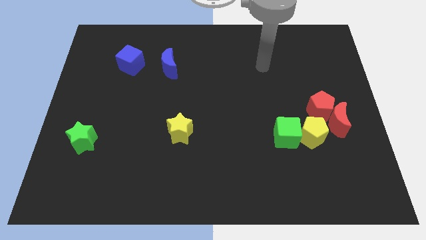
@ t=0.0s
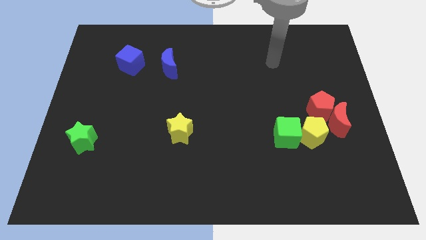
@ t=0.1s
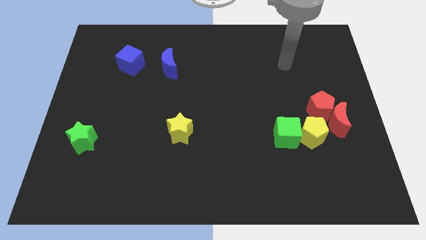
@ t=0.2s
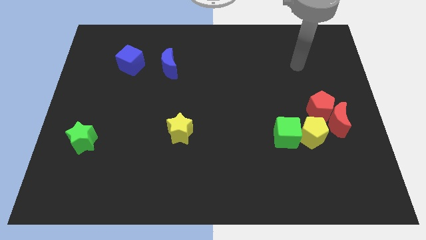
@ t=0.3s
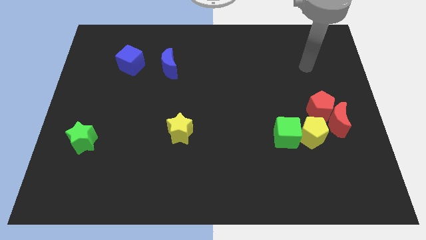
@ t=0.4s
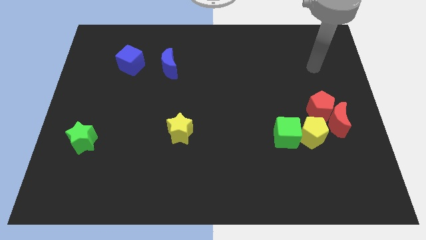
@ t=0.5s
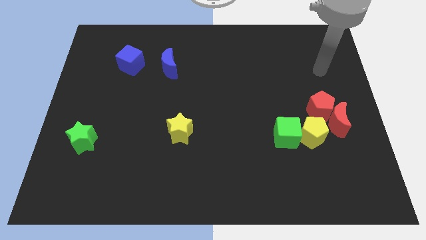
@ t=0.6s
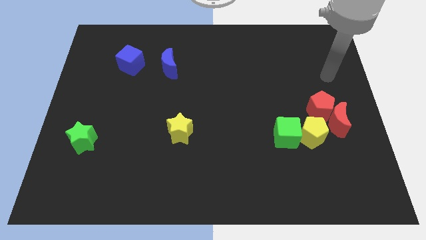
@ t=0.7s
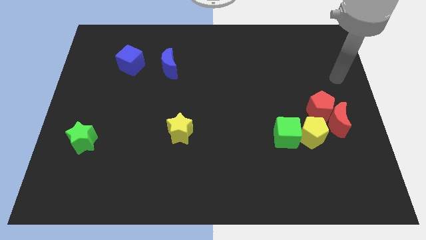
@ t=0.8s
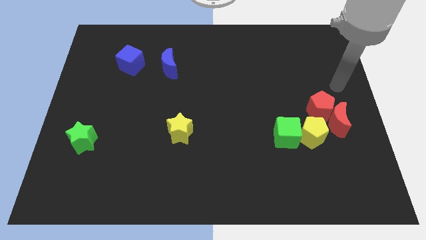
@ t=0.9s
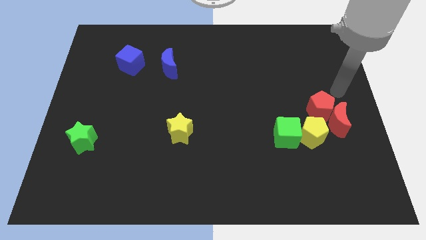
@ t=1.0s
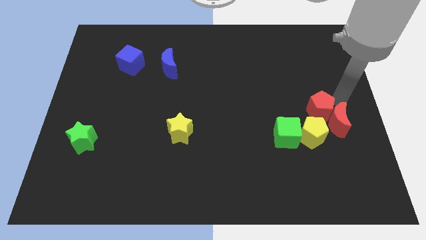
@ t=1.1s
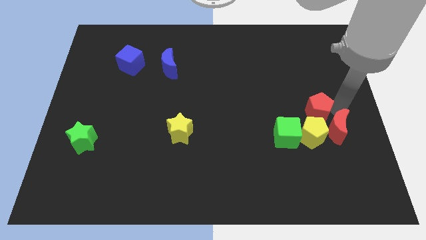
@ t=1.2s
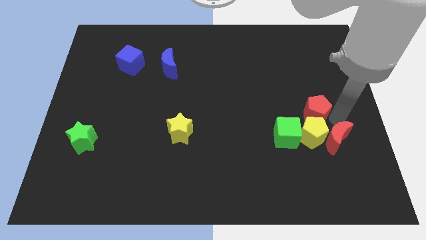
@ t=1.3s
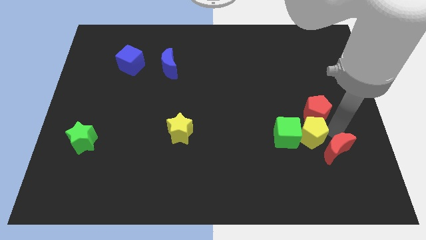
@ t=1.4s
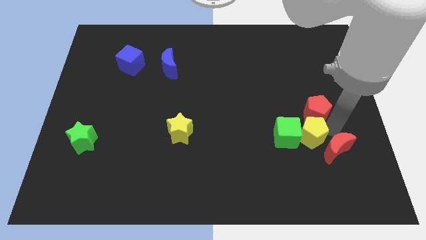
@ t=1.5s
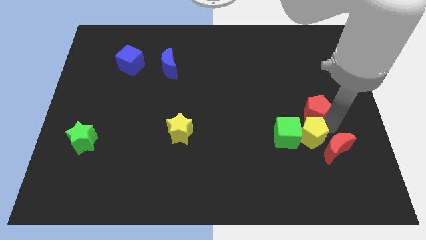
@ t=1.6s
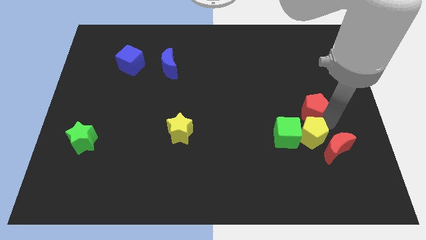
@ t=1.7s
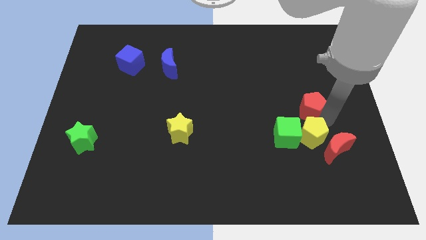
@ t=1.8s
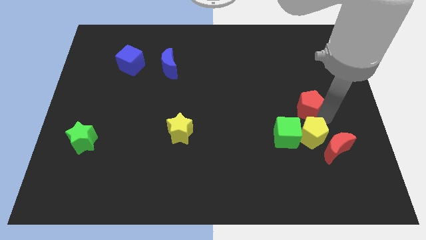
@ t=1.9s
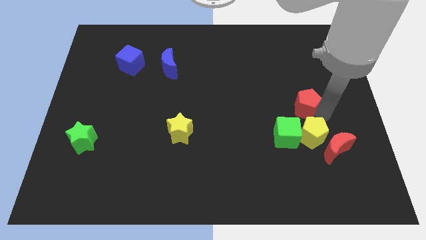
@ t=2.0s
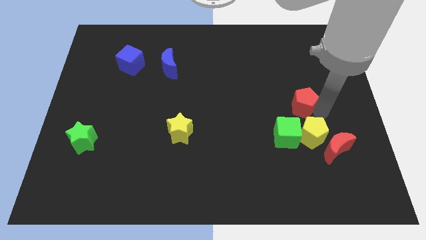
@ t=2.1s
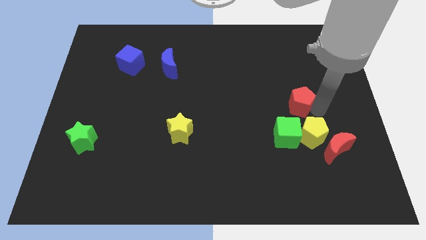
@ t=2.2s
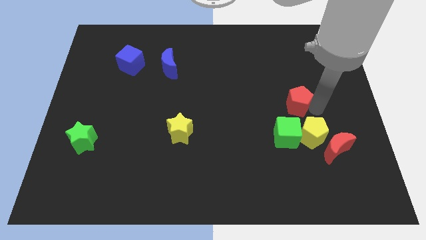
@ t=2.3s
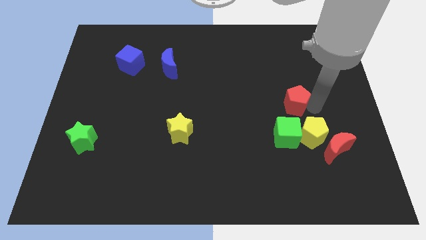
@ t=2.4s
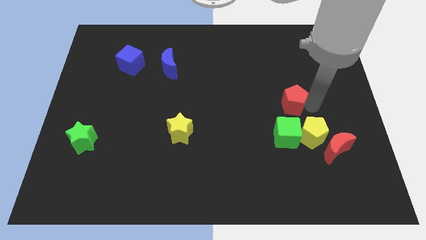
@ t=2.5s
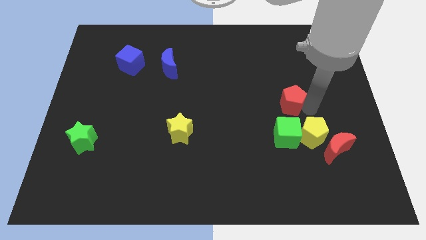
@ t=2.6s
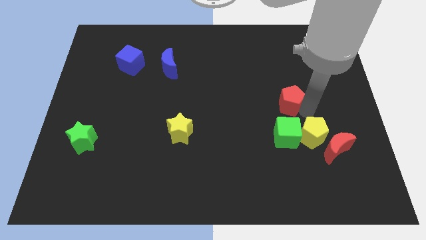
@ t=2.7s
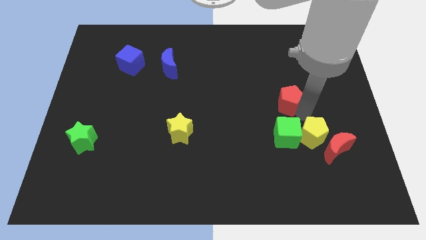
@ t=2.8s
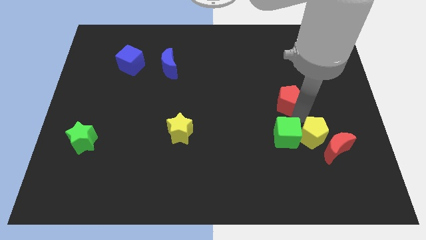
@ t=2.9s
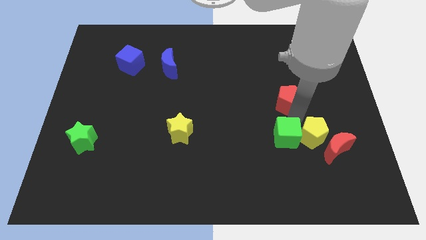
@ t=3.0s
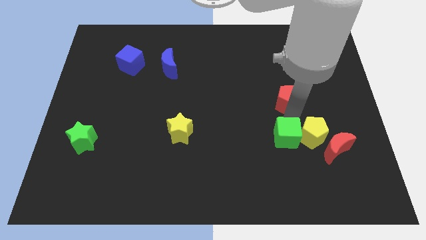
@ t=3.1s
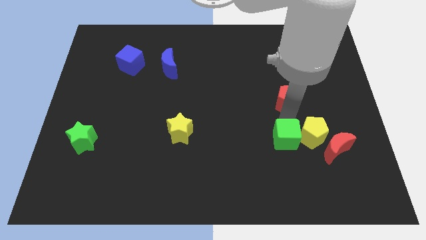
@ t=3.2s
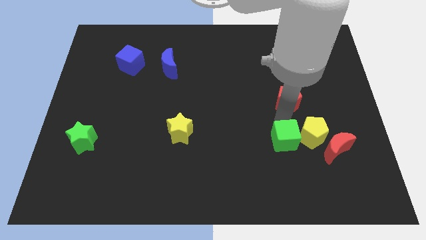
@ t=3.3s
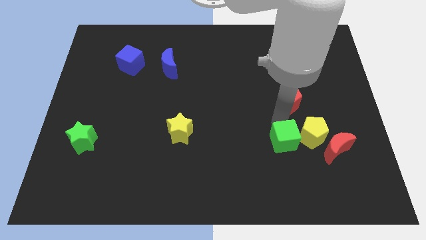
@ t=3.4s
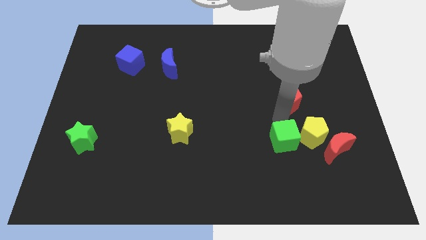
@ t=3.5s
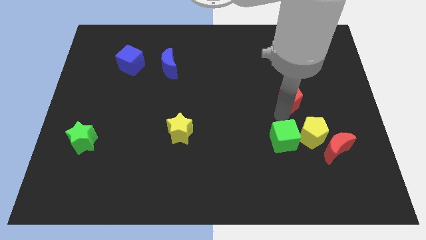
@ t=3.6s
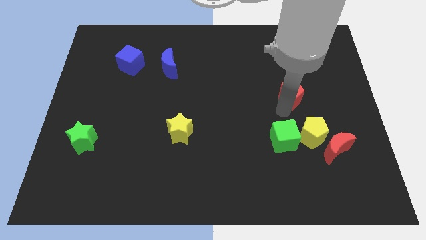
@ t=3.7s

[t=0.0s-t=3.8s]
slightly slide the red pentagon up and to the left

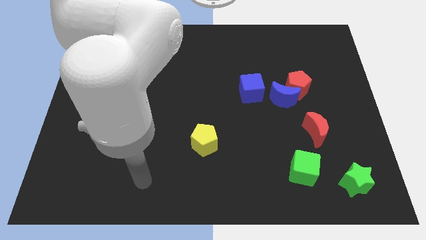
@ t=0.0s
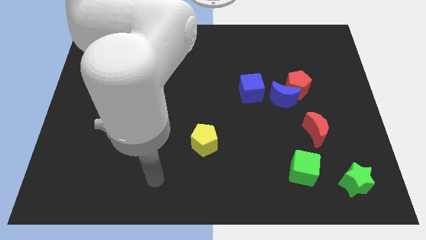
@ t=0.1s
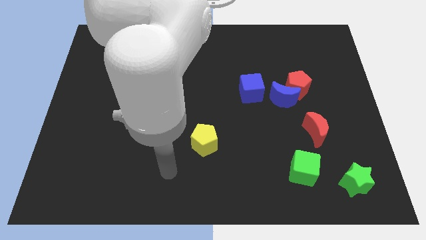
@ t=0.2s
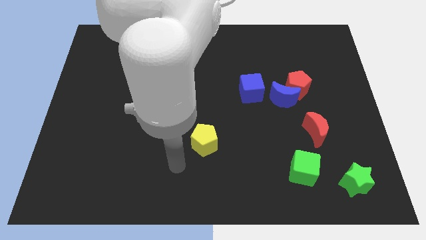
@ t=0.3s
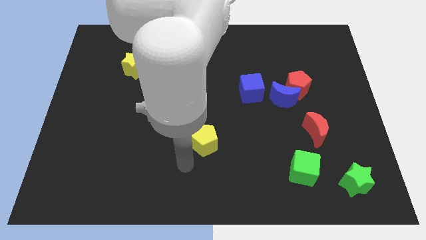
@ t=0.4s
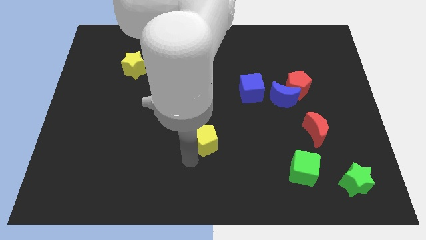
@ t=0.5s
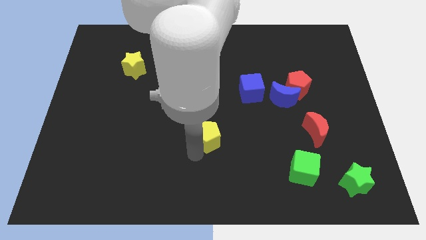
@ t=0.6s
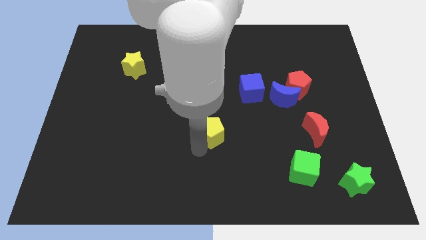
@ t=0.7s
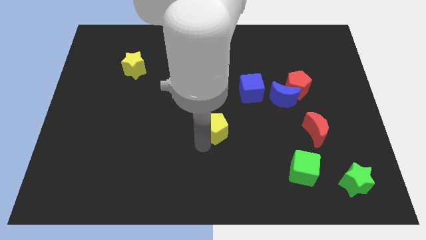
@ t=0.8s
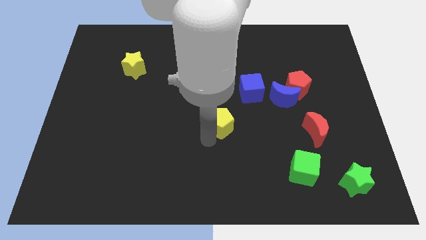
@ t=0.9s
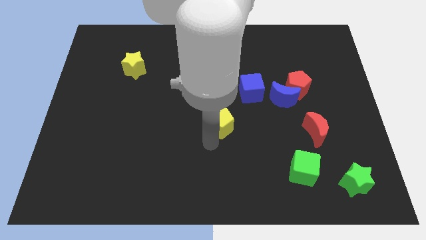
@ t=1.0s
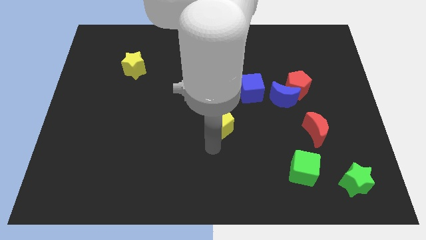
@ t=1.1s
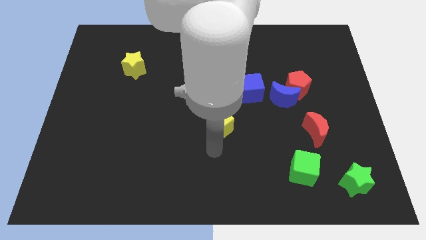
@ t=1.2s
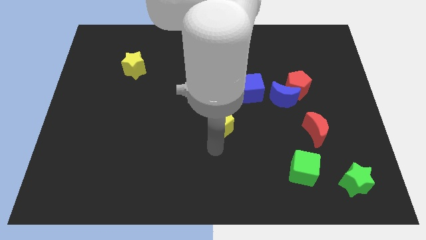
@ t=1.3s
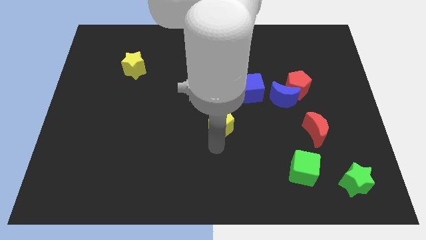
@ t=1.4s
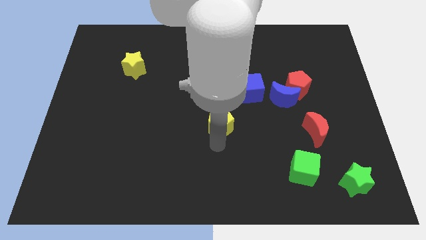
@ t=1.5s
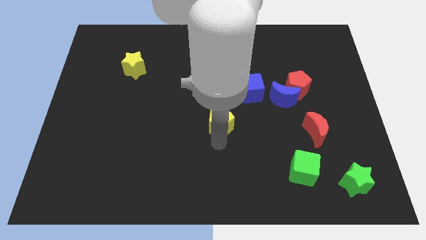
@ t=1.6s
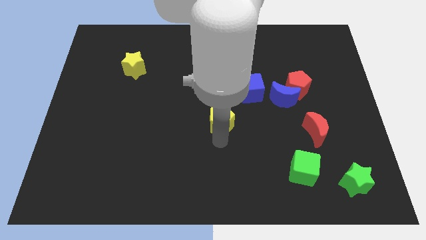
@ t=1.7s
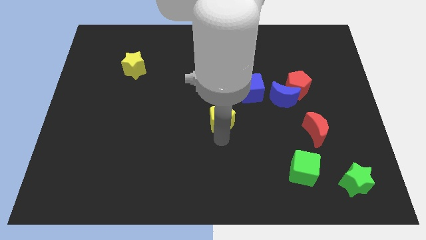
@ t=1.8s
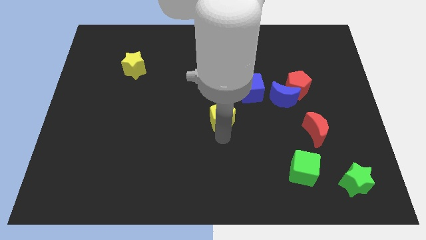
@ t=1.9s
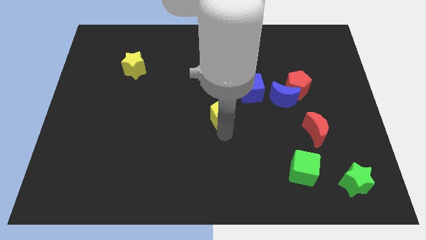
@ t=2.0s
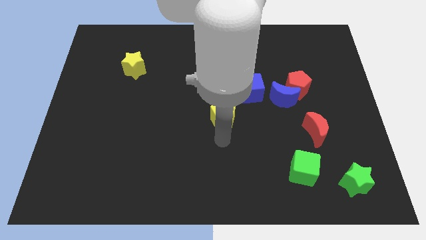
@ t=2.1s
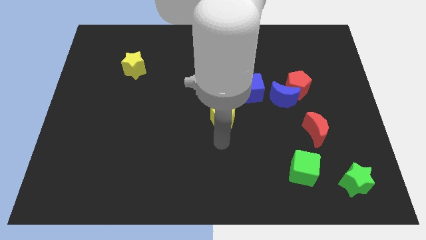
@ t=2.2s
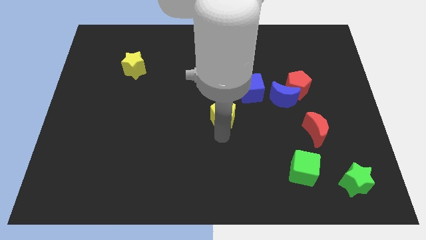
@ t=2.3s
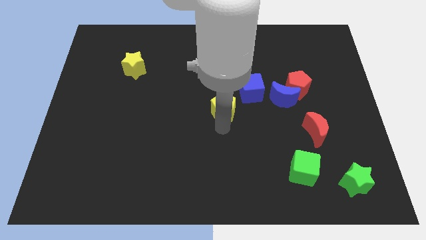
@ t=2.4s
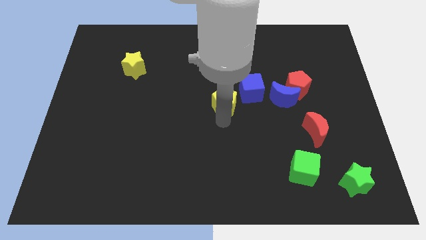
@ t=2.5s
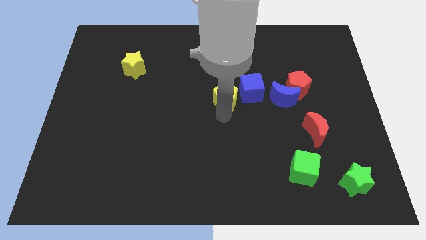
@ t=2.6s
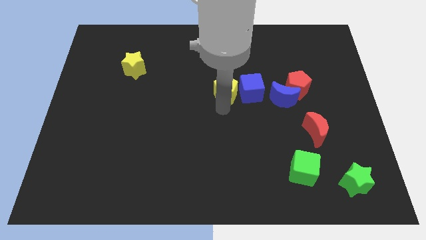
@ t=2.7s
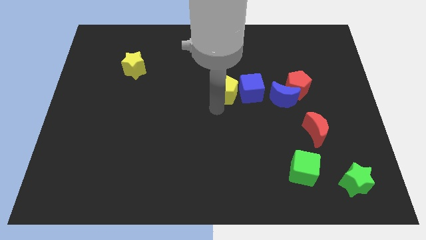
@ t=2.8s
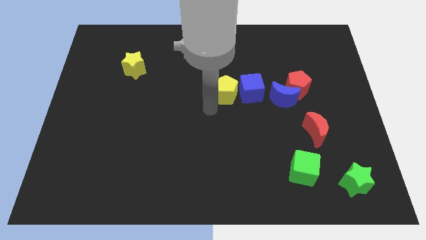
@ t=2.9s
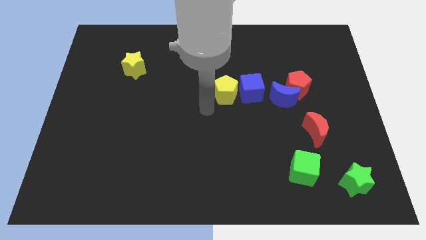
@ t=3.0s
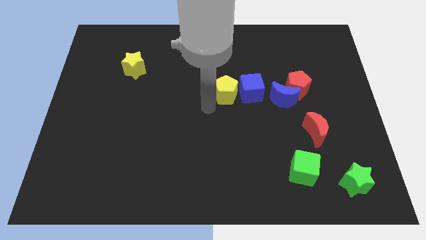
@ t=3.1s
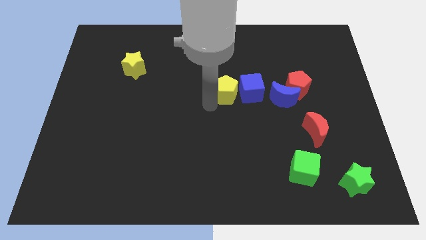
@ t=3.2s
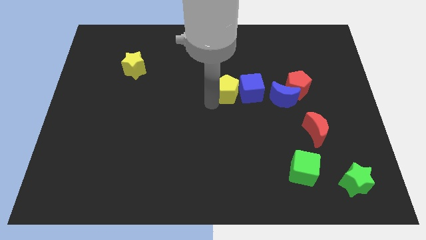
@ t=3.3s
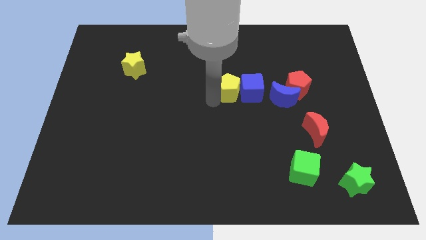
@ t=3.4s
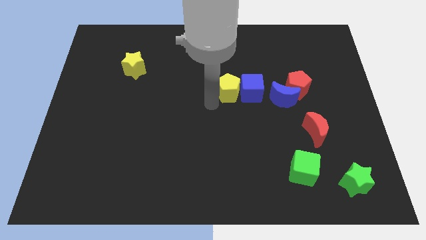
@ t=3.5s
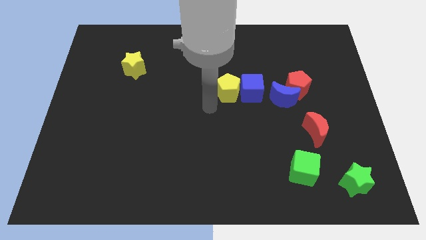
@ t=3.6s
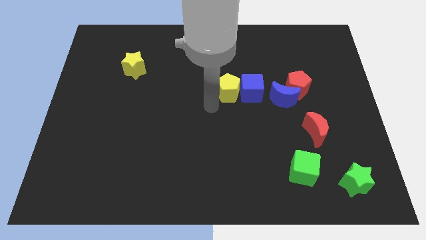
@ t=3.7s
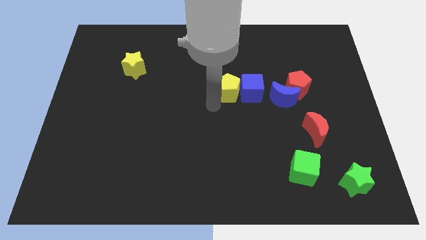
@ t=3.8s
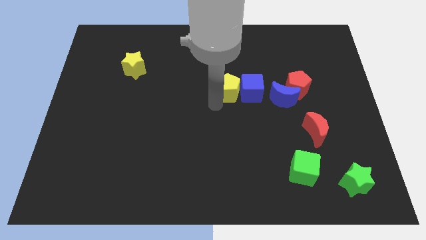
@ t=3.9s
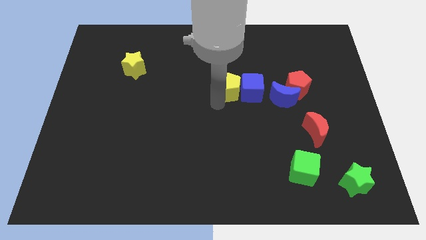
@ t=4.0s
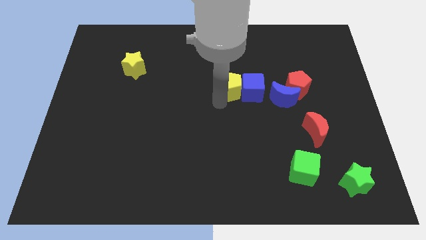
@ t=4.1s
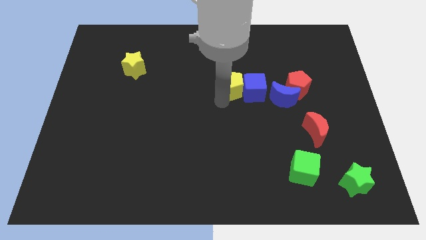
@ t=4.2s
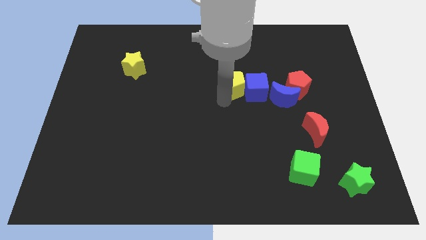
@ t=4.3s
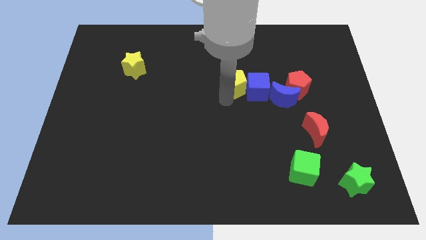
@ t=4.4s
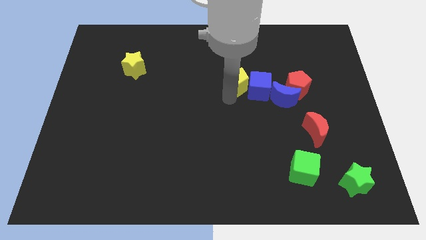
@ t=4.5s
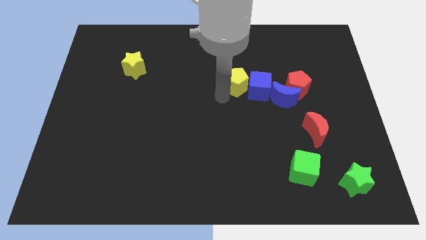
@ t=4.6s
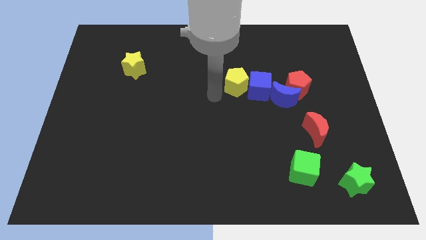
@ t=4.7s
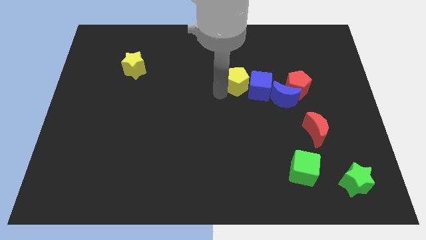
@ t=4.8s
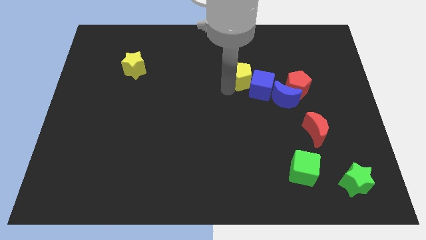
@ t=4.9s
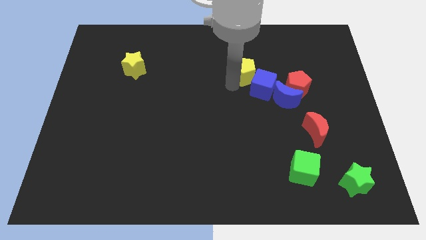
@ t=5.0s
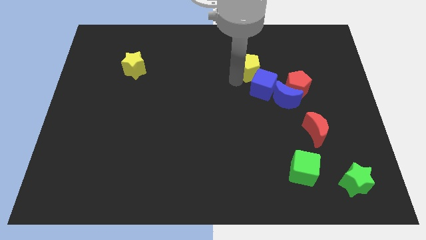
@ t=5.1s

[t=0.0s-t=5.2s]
move the yellow pentagon up and then to the right
